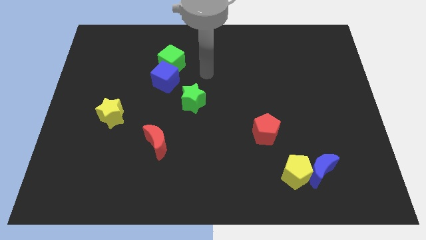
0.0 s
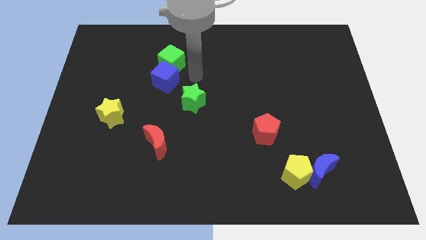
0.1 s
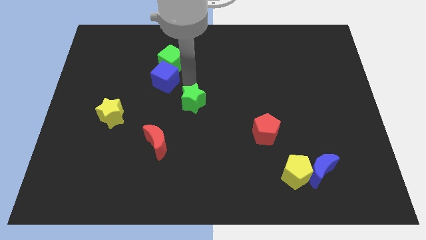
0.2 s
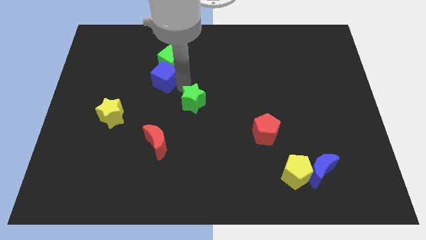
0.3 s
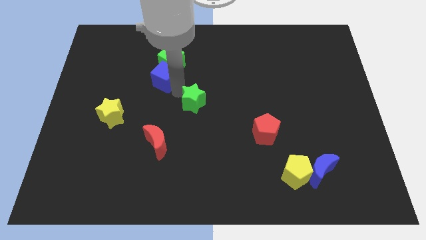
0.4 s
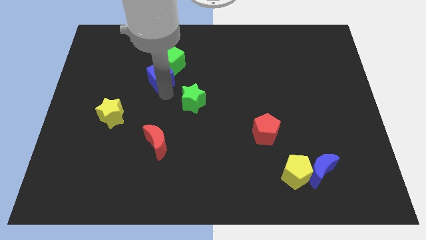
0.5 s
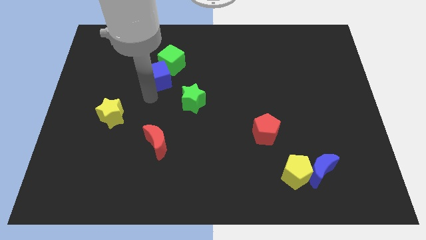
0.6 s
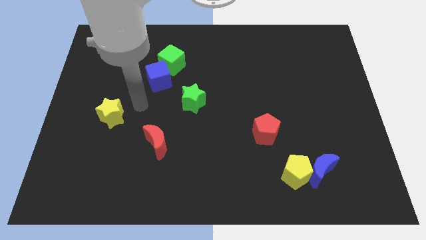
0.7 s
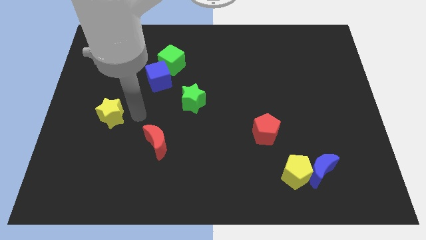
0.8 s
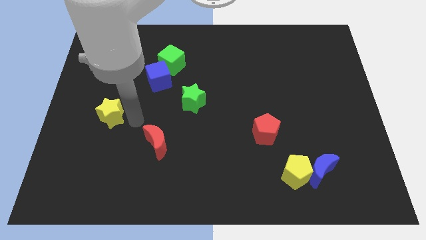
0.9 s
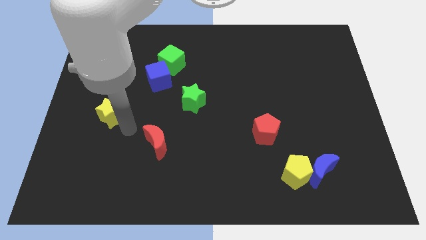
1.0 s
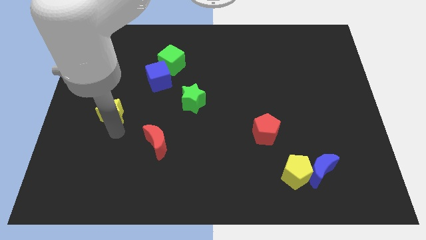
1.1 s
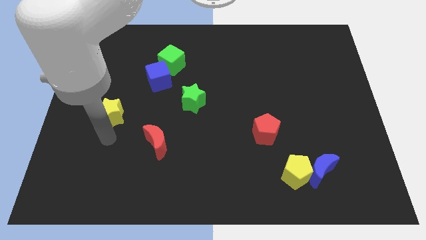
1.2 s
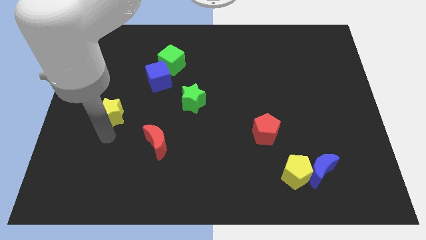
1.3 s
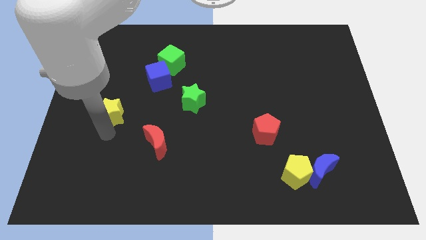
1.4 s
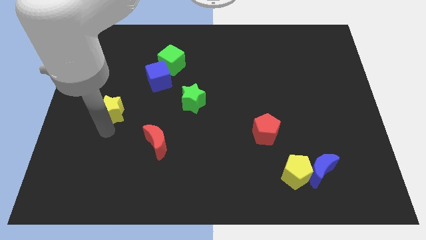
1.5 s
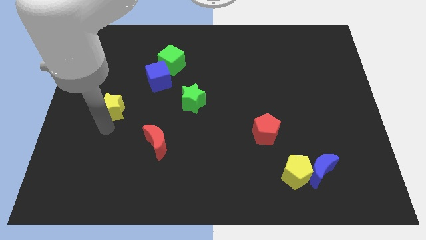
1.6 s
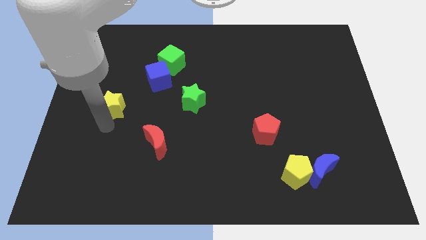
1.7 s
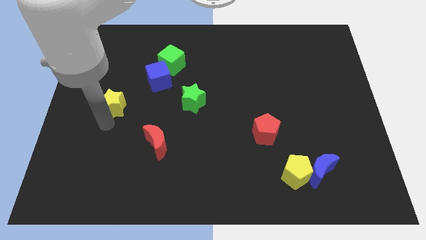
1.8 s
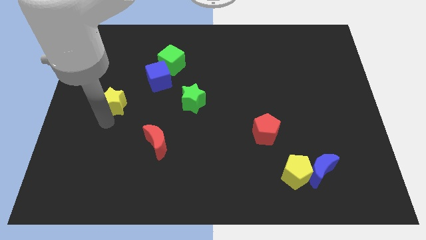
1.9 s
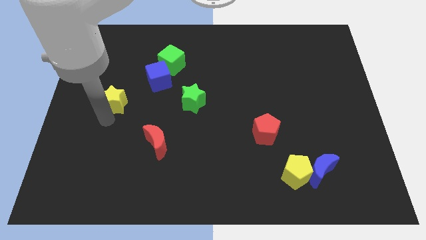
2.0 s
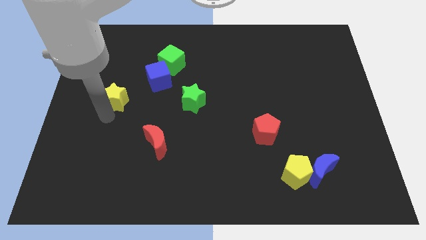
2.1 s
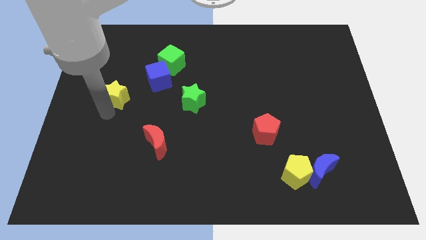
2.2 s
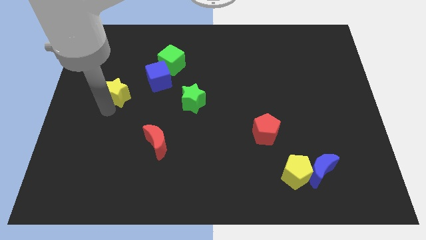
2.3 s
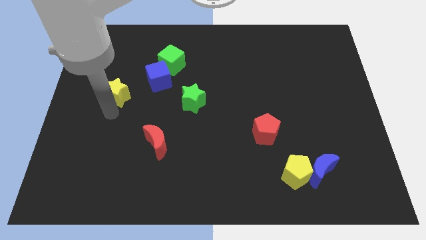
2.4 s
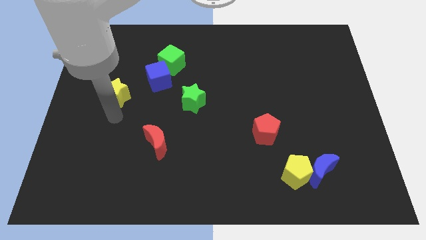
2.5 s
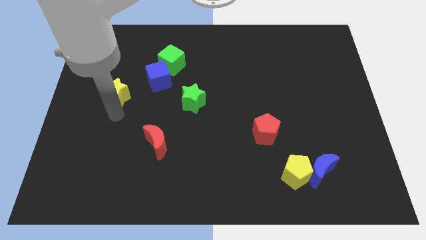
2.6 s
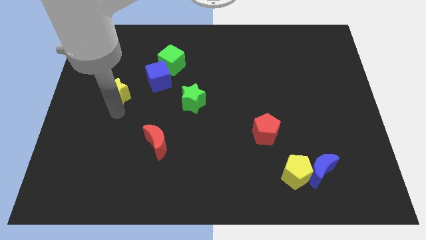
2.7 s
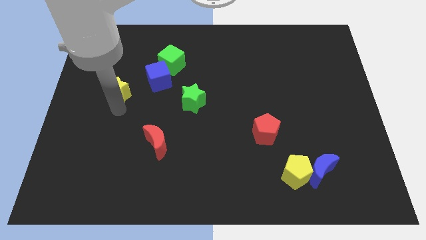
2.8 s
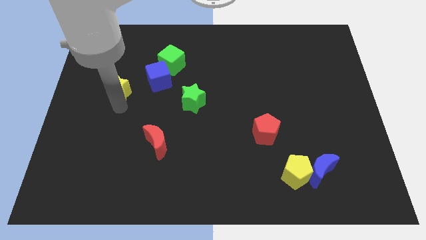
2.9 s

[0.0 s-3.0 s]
slide the yellow star upwards a bit

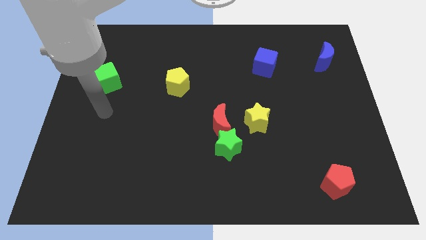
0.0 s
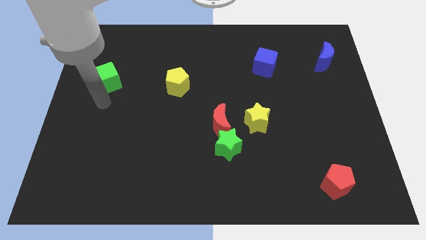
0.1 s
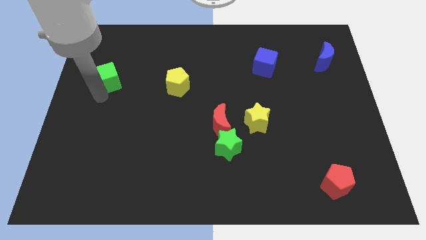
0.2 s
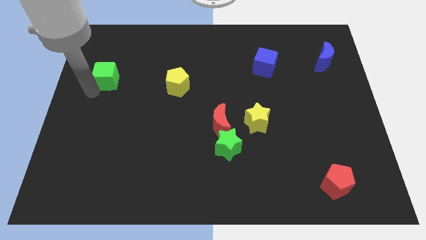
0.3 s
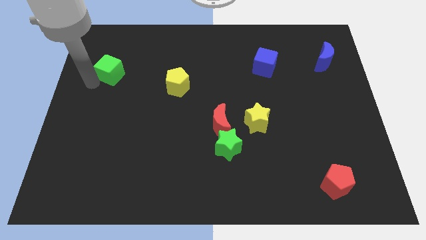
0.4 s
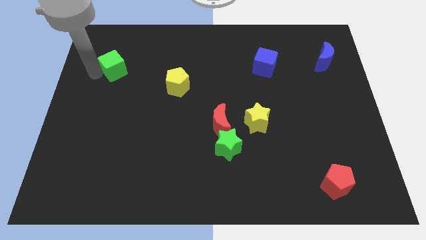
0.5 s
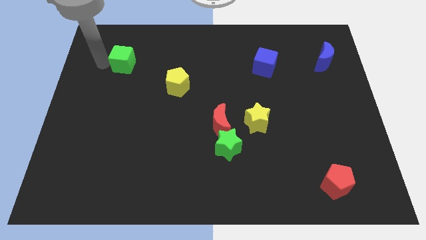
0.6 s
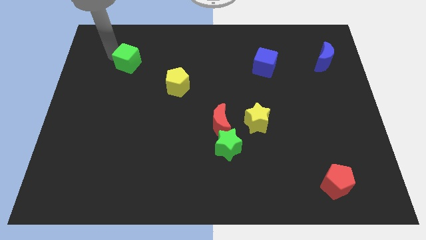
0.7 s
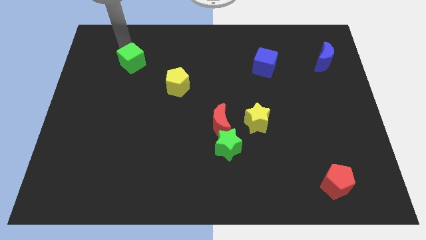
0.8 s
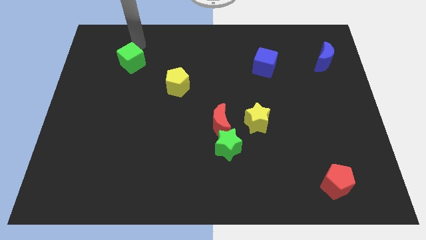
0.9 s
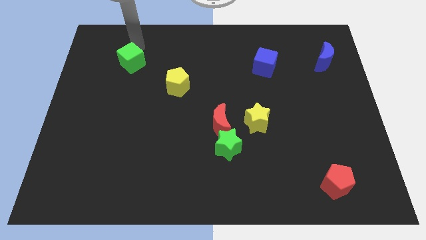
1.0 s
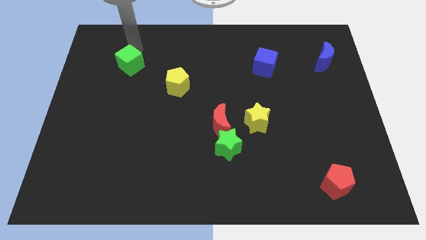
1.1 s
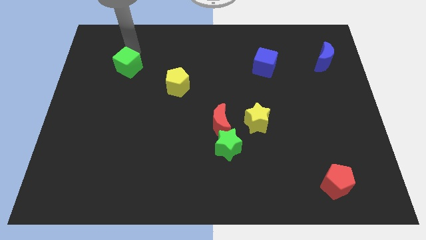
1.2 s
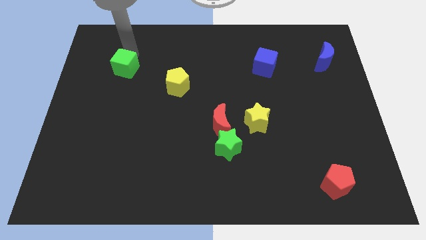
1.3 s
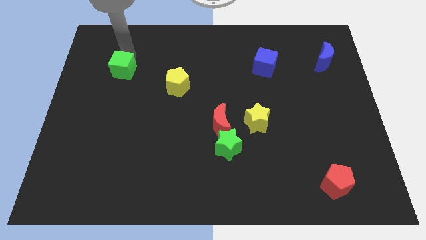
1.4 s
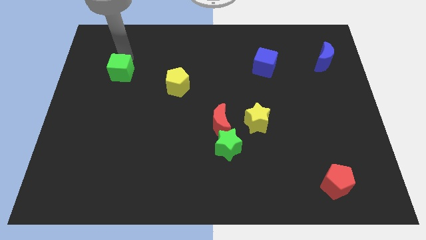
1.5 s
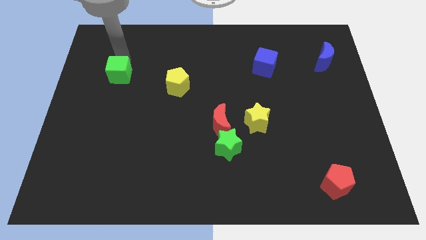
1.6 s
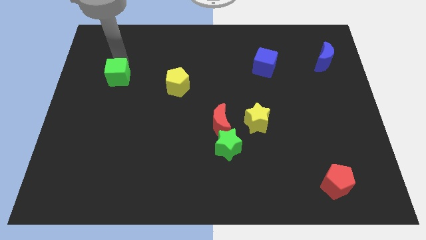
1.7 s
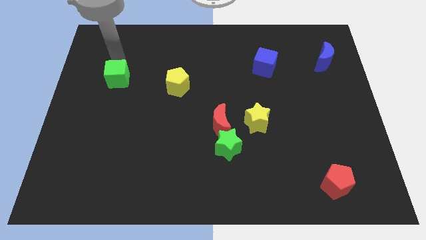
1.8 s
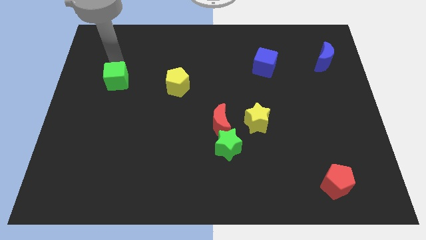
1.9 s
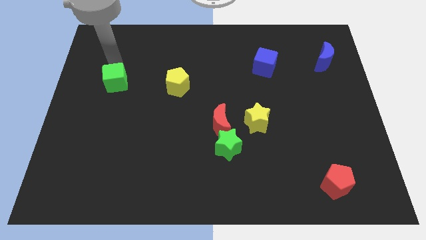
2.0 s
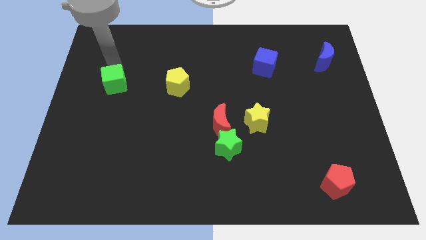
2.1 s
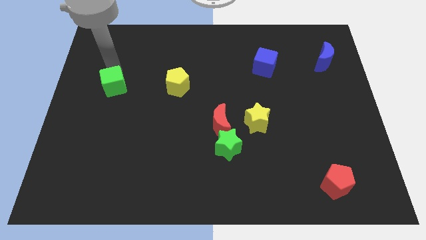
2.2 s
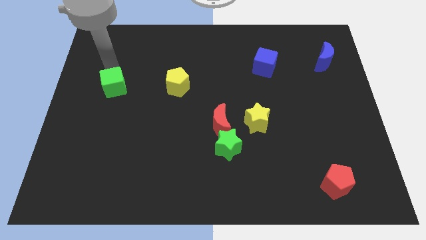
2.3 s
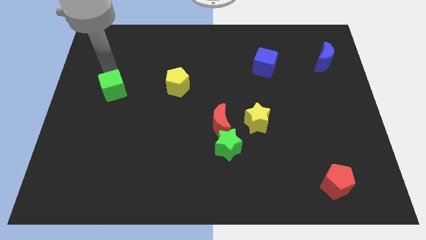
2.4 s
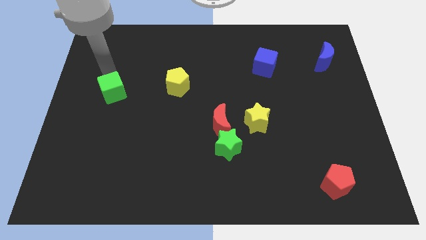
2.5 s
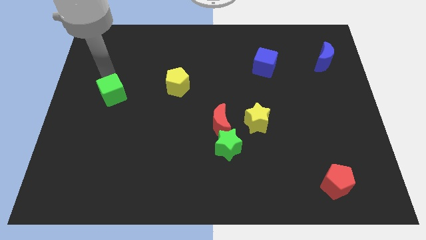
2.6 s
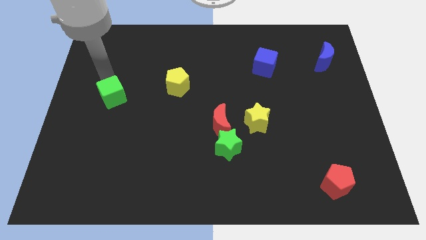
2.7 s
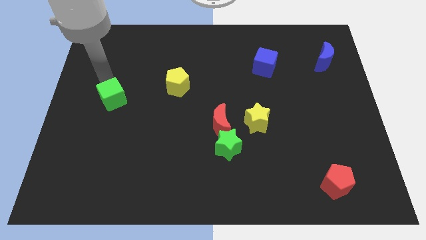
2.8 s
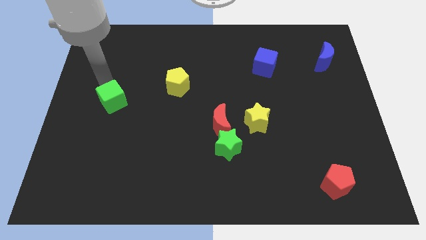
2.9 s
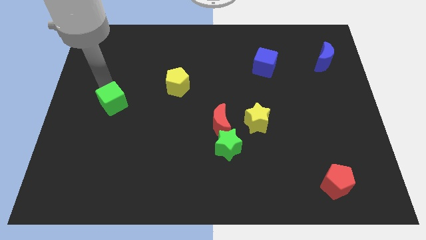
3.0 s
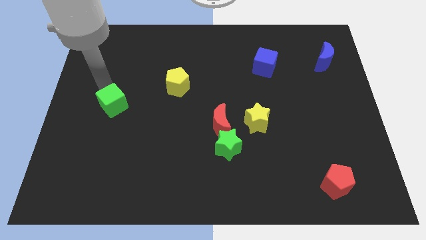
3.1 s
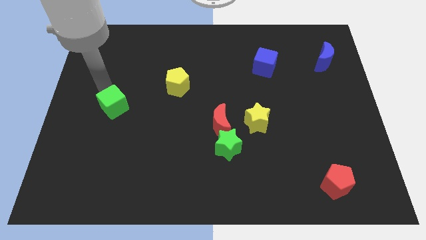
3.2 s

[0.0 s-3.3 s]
slightly slide the green cube downwards and then to the right

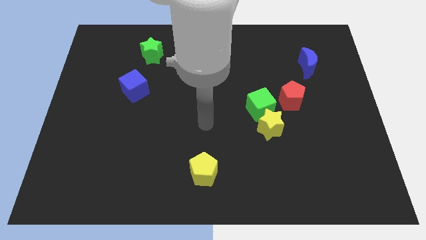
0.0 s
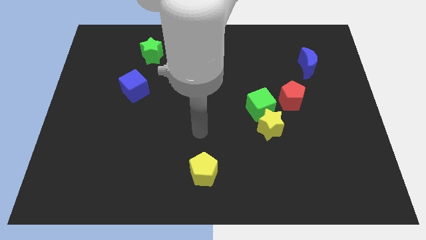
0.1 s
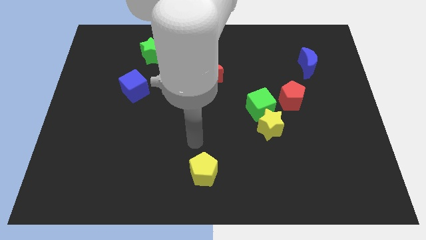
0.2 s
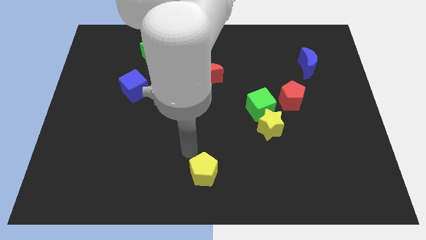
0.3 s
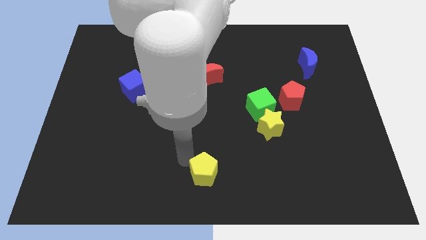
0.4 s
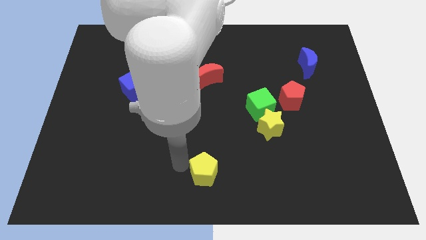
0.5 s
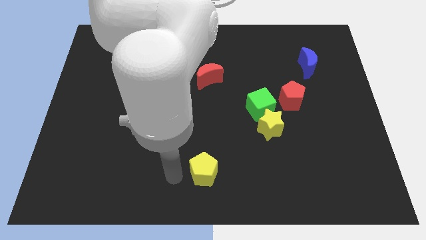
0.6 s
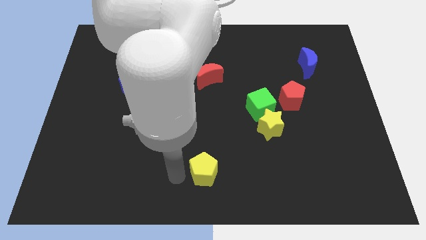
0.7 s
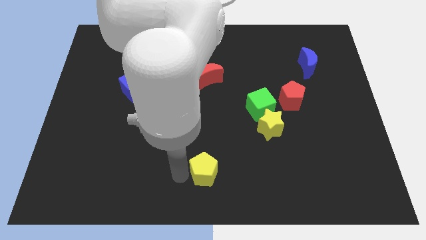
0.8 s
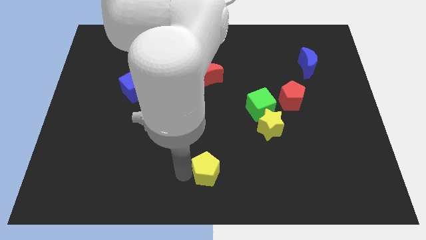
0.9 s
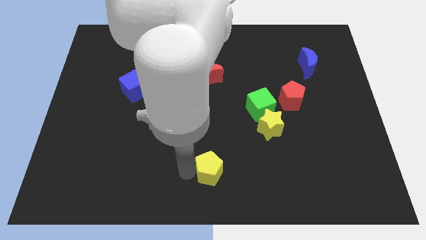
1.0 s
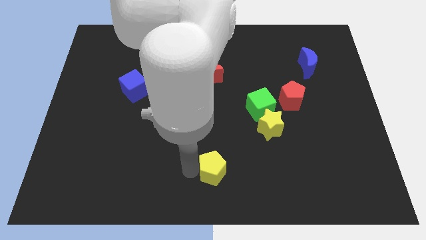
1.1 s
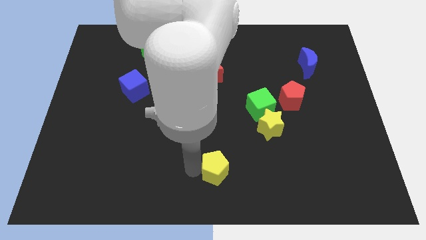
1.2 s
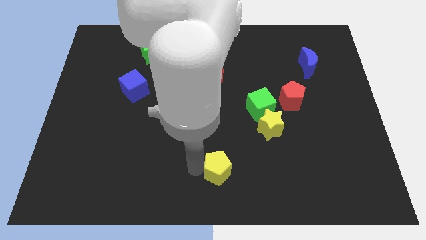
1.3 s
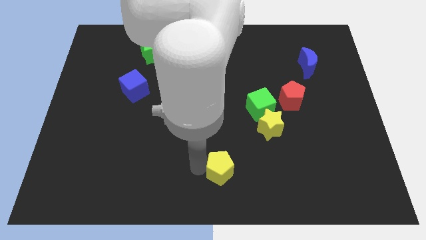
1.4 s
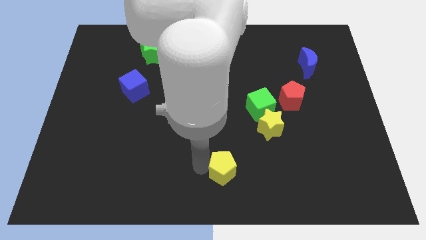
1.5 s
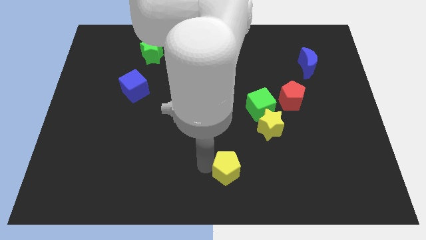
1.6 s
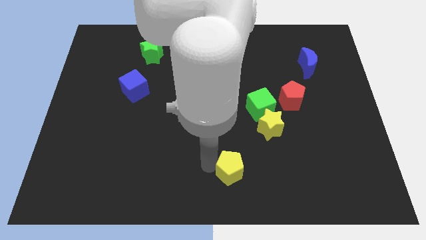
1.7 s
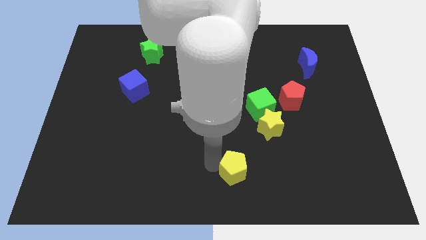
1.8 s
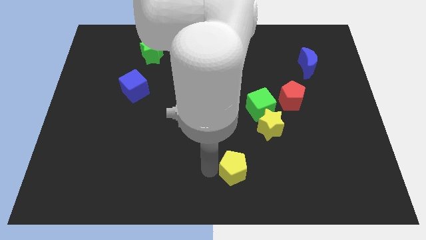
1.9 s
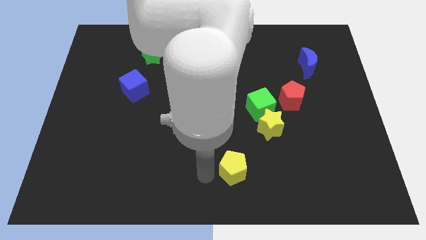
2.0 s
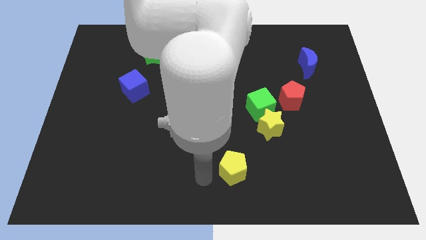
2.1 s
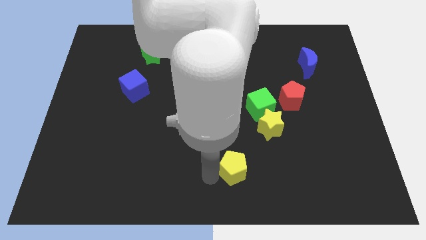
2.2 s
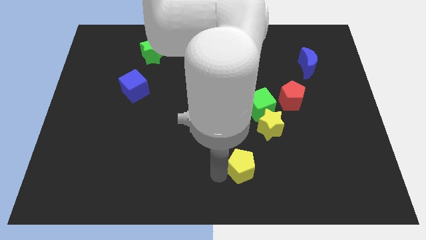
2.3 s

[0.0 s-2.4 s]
move the yellow pentagon to the right a little
